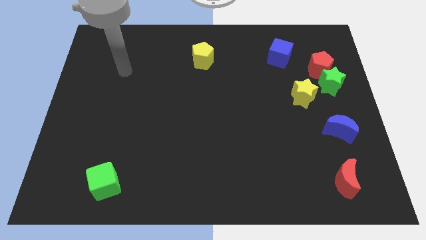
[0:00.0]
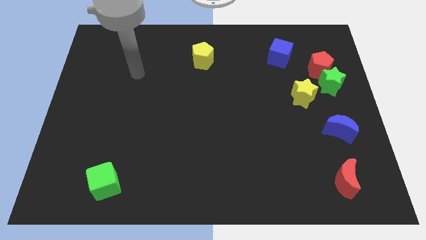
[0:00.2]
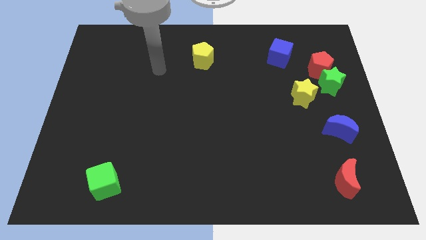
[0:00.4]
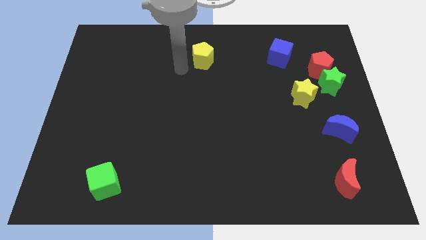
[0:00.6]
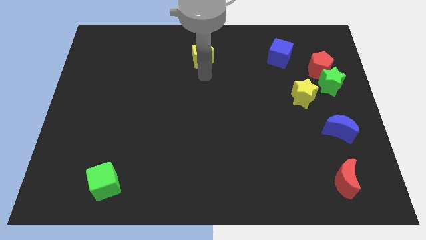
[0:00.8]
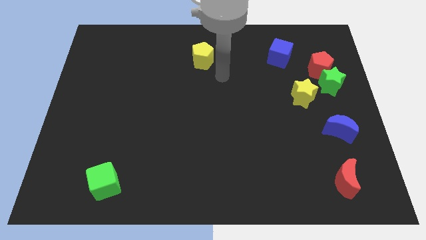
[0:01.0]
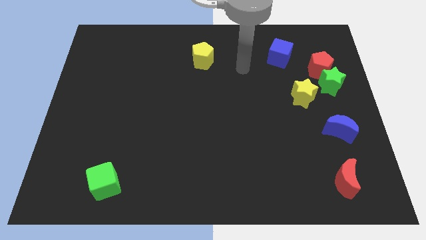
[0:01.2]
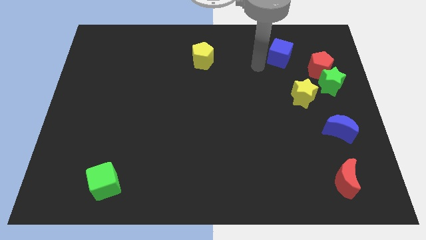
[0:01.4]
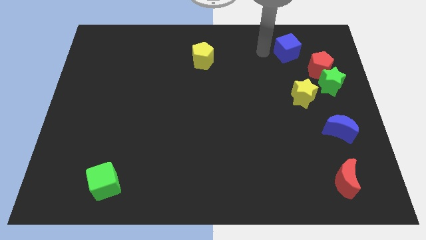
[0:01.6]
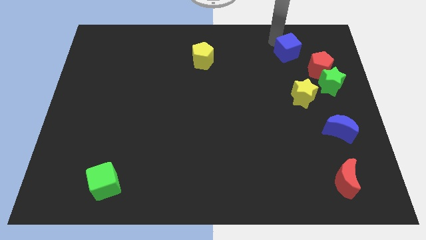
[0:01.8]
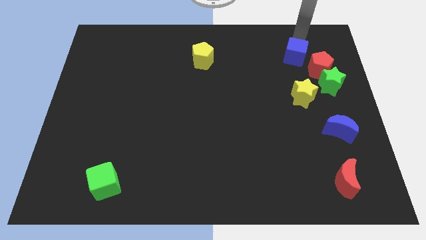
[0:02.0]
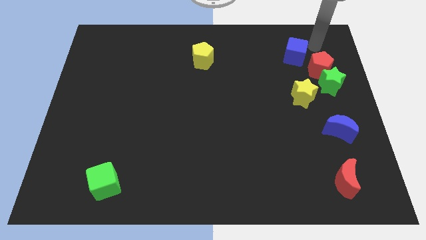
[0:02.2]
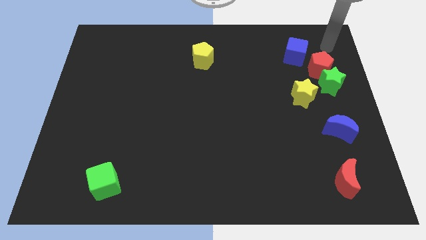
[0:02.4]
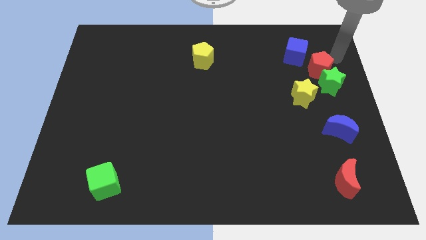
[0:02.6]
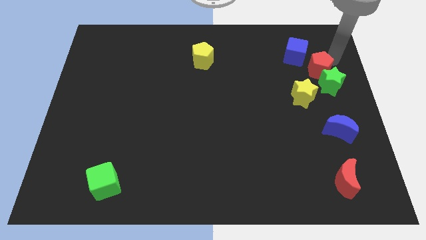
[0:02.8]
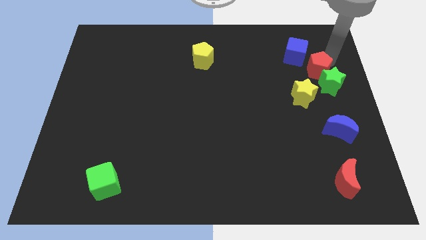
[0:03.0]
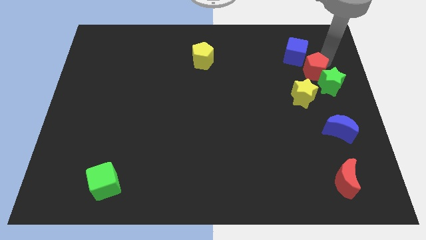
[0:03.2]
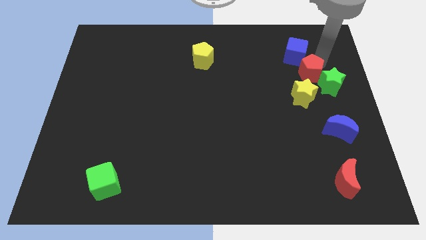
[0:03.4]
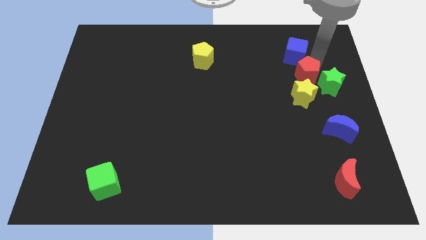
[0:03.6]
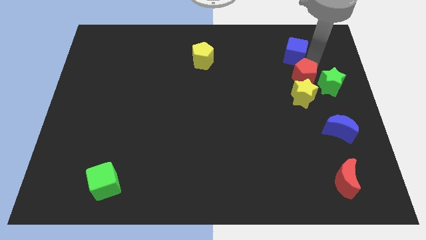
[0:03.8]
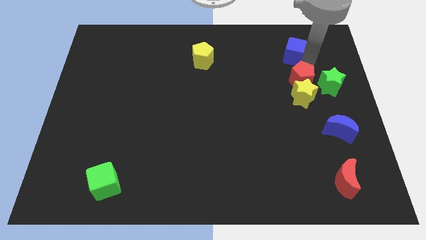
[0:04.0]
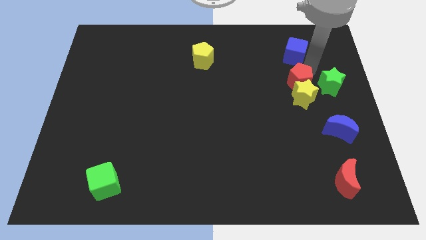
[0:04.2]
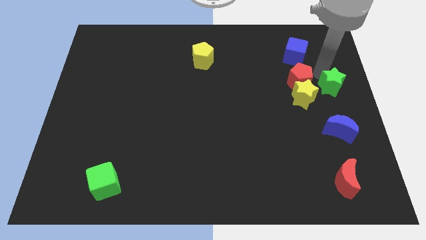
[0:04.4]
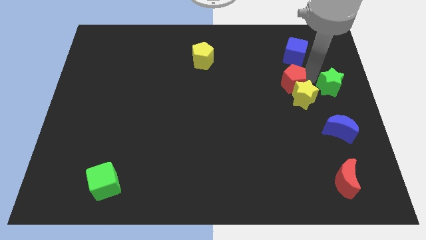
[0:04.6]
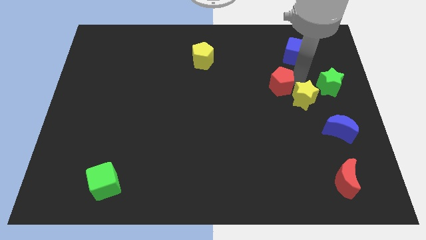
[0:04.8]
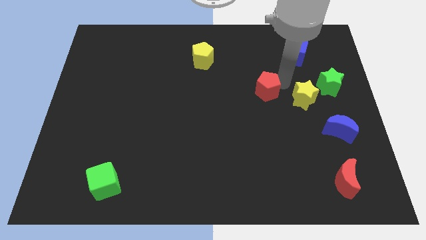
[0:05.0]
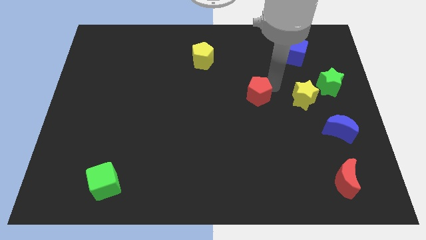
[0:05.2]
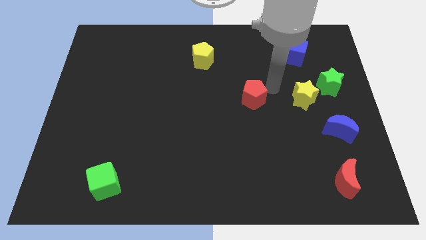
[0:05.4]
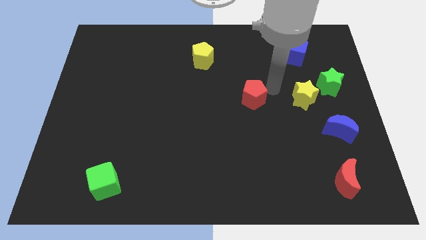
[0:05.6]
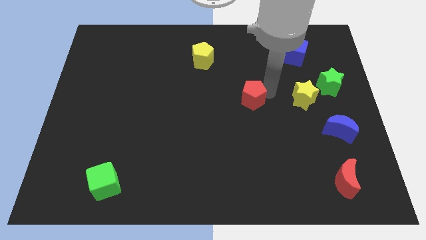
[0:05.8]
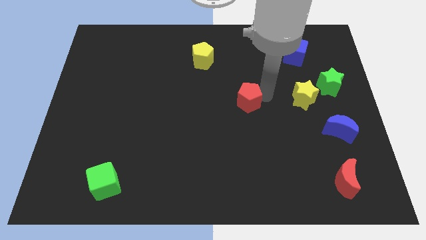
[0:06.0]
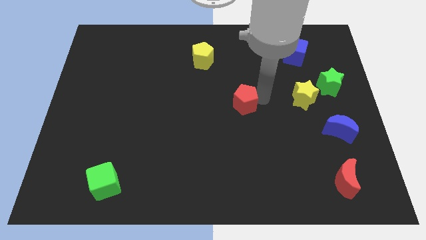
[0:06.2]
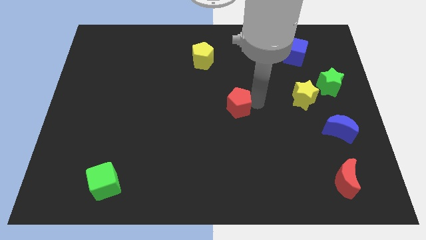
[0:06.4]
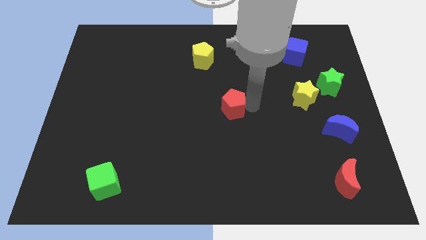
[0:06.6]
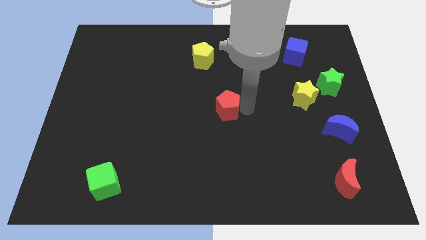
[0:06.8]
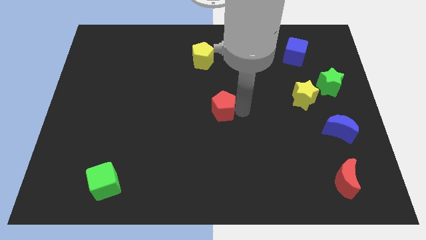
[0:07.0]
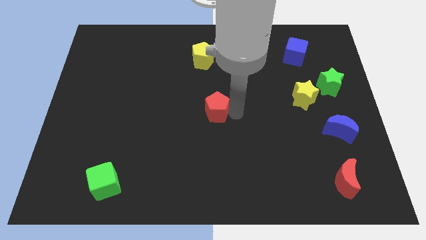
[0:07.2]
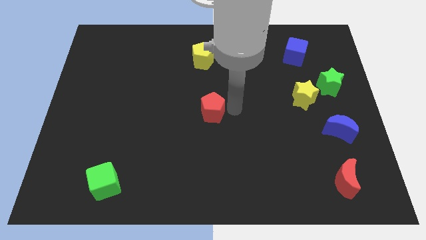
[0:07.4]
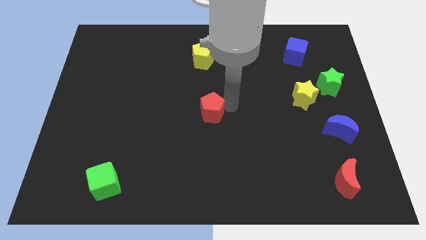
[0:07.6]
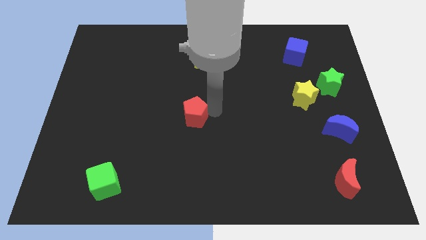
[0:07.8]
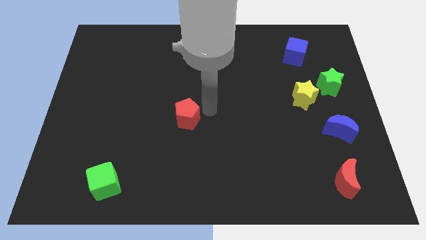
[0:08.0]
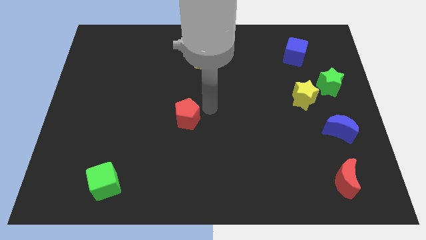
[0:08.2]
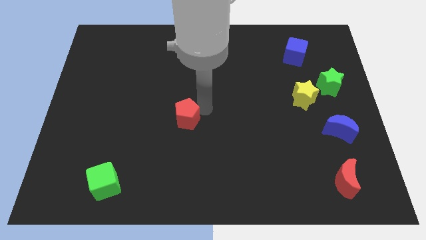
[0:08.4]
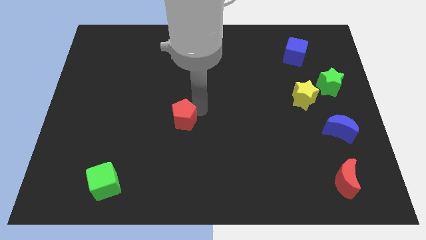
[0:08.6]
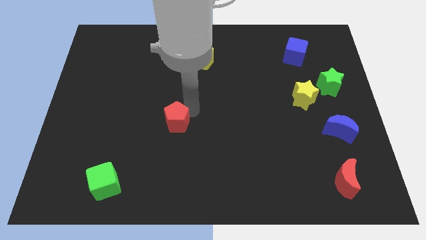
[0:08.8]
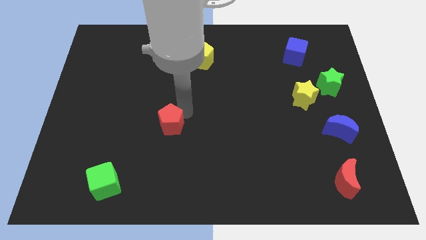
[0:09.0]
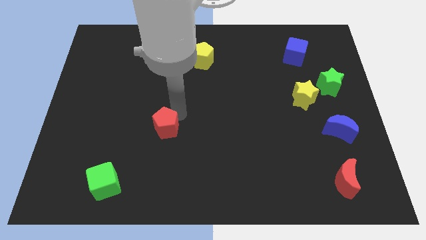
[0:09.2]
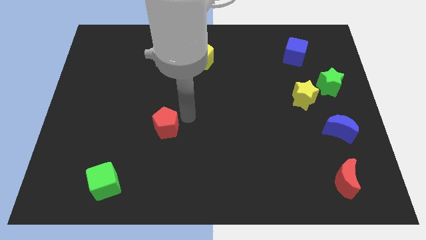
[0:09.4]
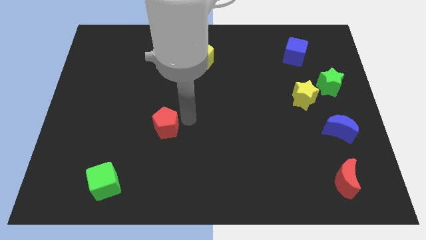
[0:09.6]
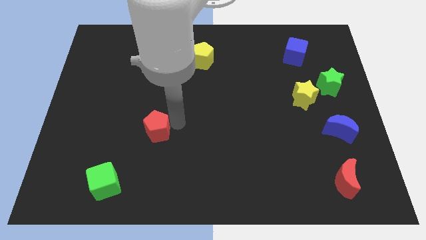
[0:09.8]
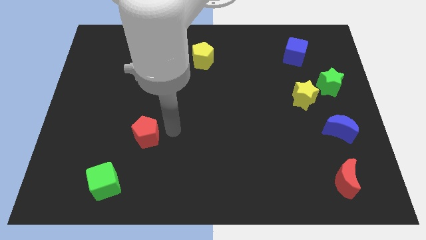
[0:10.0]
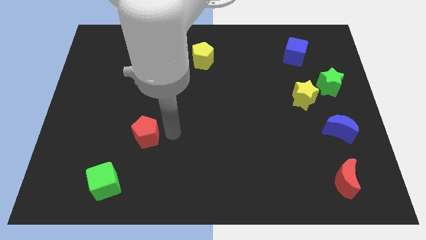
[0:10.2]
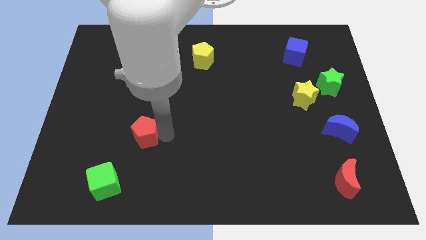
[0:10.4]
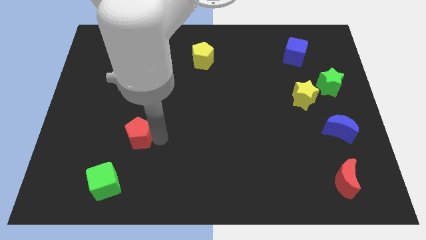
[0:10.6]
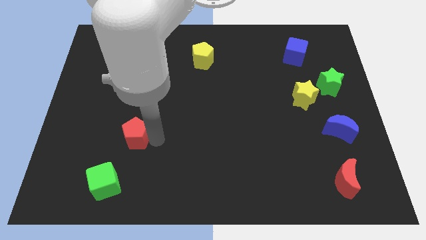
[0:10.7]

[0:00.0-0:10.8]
move the red pentagon above the green cube

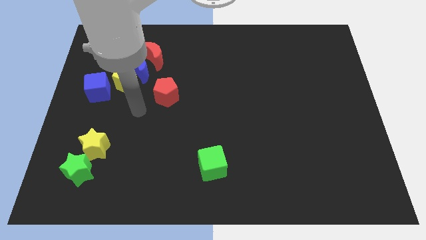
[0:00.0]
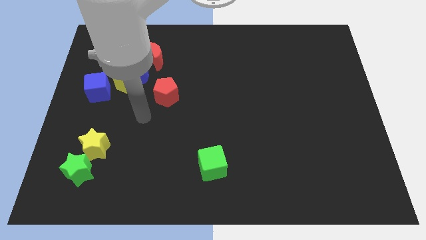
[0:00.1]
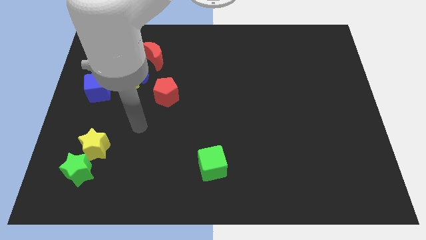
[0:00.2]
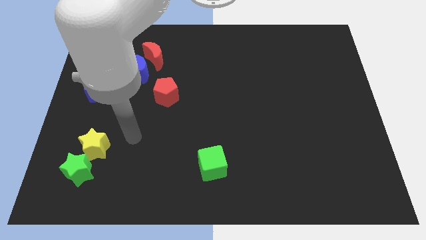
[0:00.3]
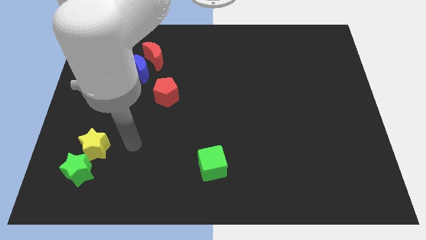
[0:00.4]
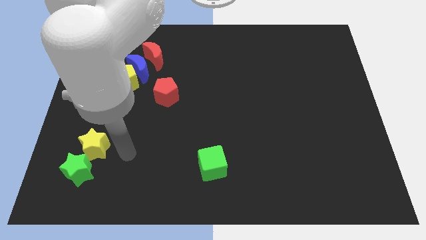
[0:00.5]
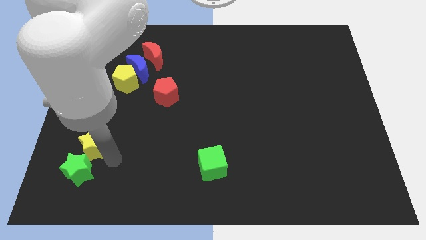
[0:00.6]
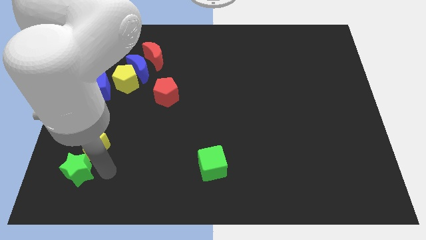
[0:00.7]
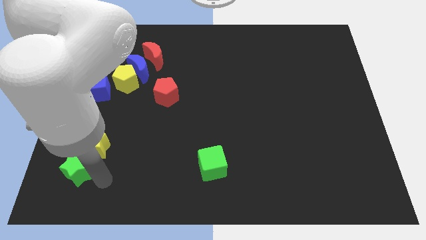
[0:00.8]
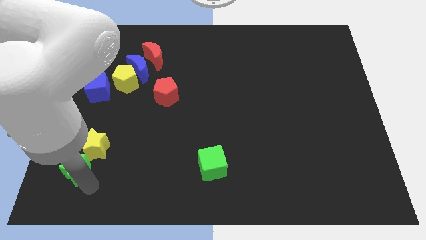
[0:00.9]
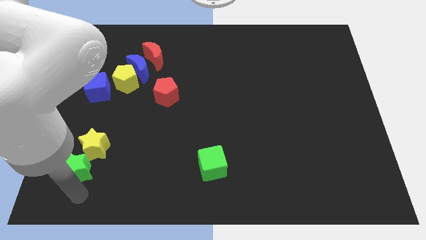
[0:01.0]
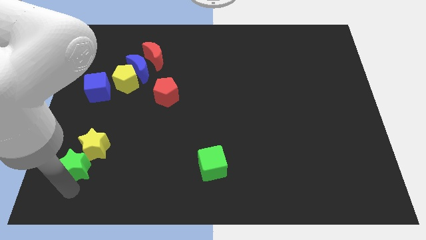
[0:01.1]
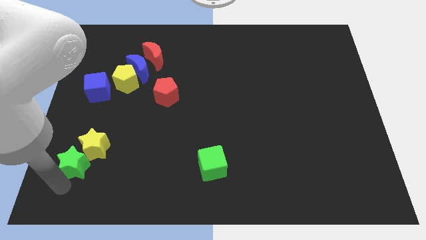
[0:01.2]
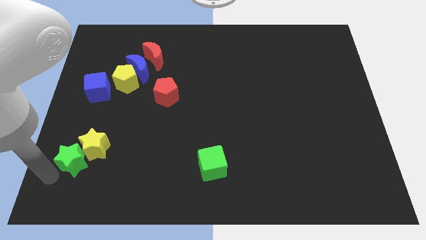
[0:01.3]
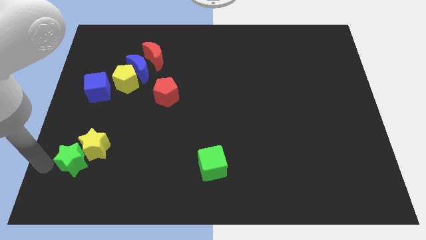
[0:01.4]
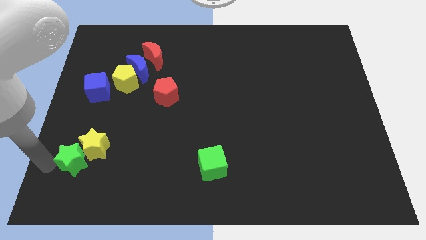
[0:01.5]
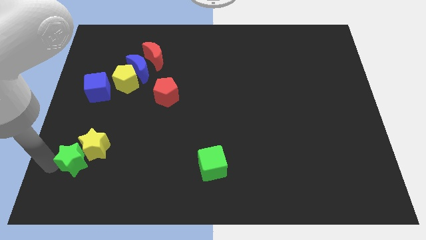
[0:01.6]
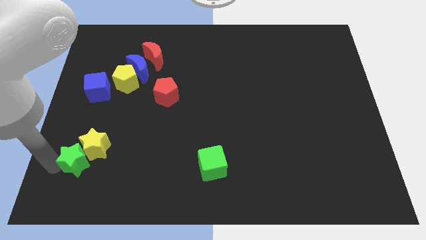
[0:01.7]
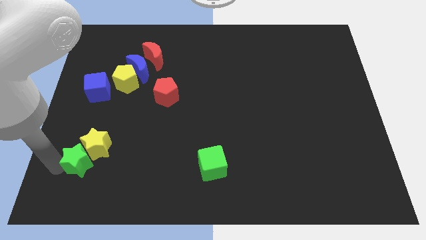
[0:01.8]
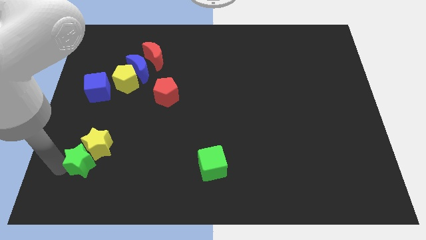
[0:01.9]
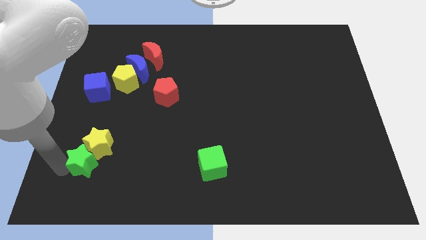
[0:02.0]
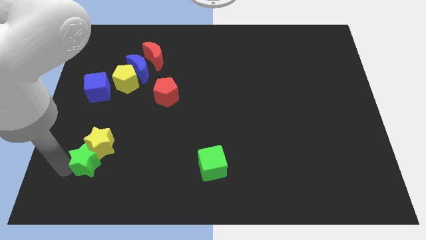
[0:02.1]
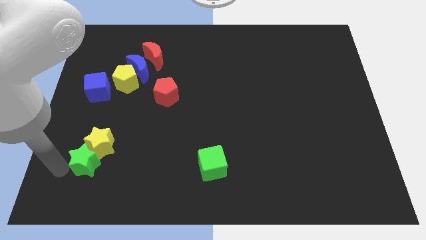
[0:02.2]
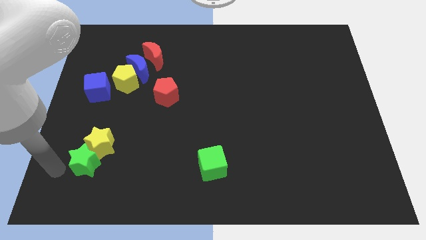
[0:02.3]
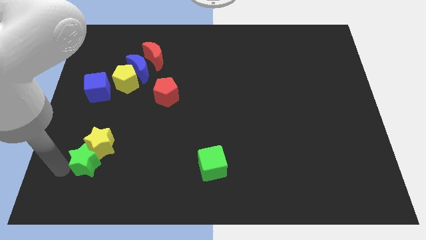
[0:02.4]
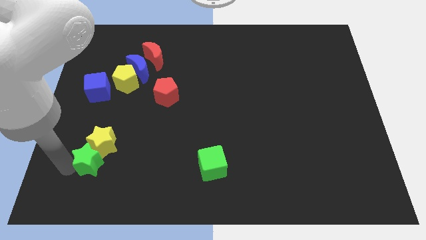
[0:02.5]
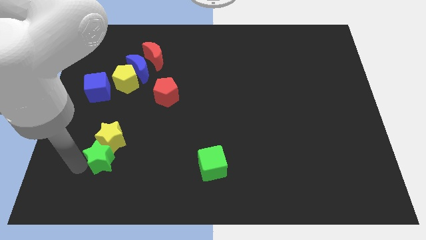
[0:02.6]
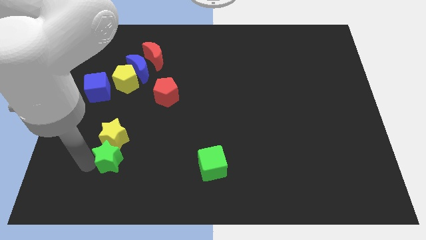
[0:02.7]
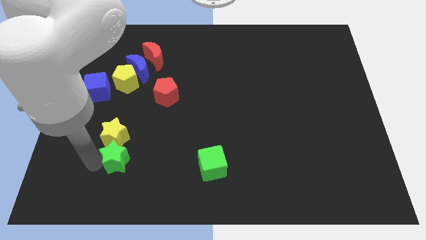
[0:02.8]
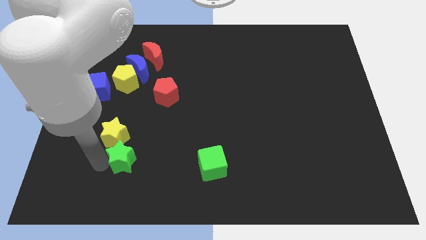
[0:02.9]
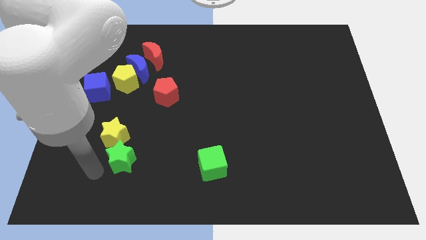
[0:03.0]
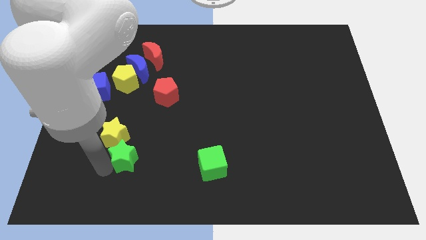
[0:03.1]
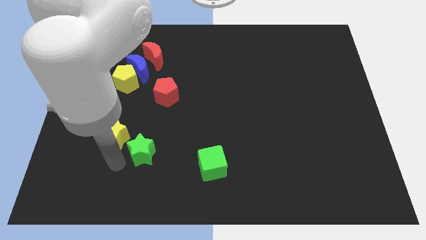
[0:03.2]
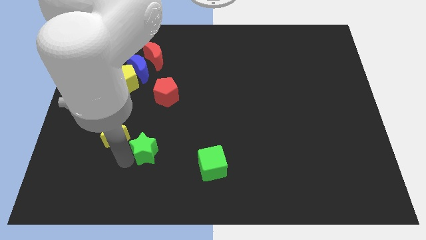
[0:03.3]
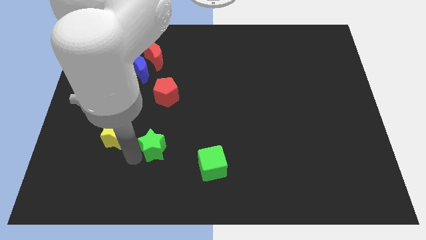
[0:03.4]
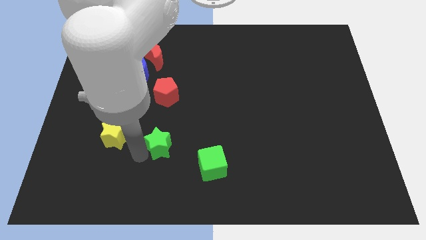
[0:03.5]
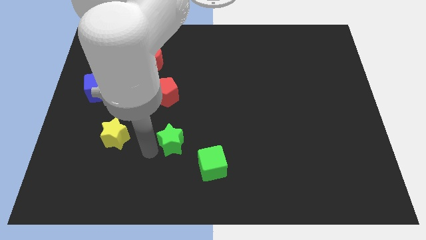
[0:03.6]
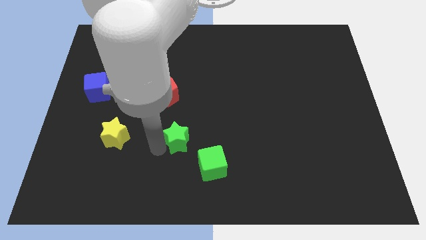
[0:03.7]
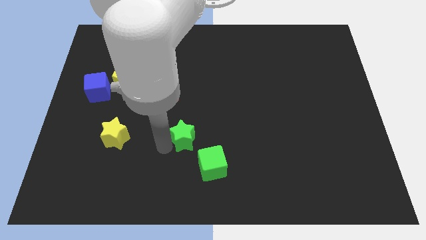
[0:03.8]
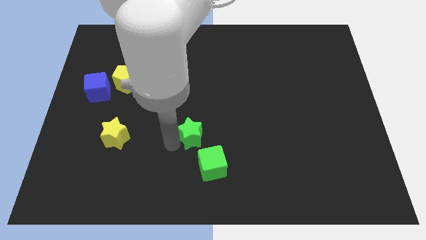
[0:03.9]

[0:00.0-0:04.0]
slide the green star to the top side of the green cube
